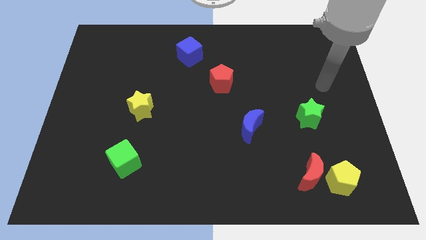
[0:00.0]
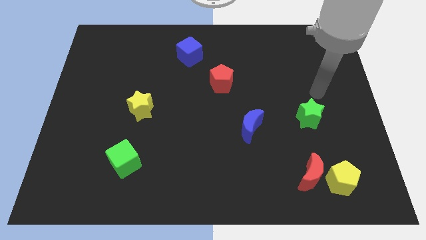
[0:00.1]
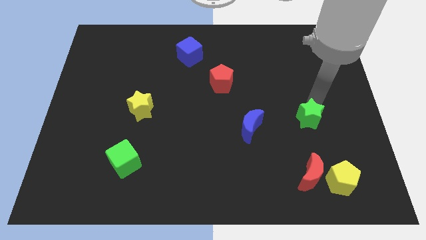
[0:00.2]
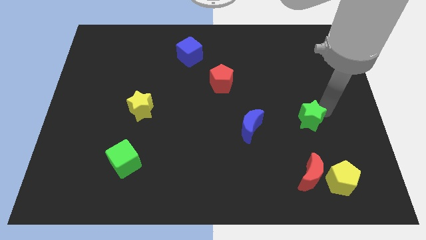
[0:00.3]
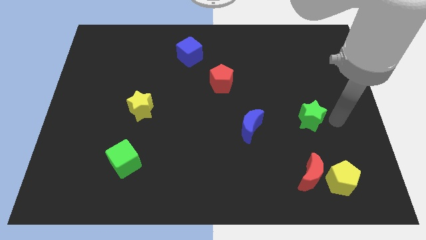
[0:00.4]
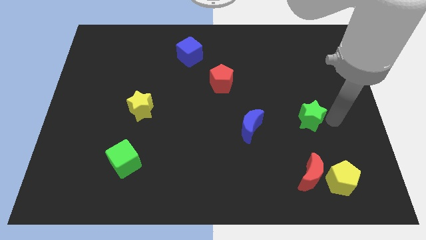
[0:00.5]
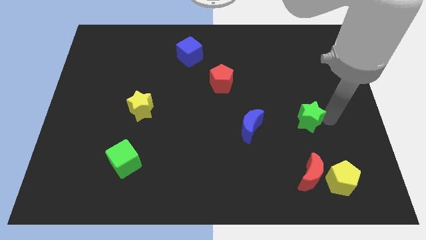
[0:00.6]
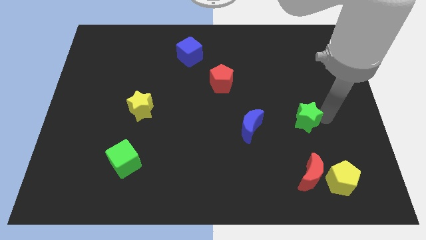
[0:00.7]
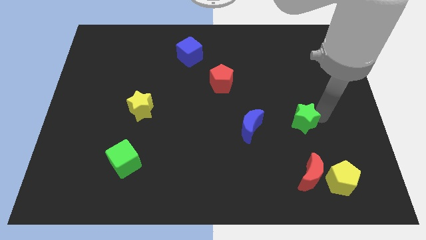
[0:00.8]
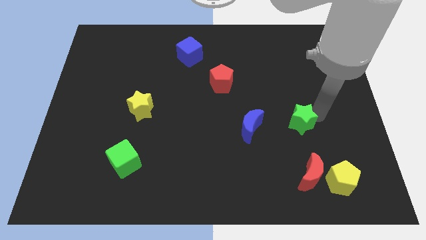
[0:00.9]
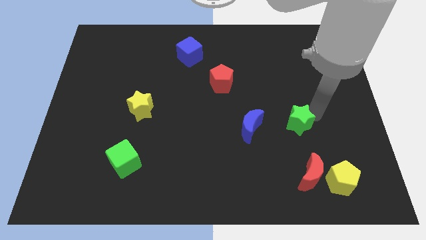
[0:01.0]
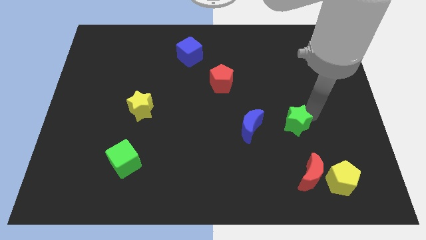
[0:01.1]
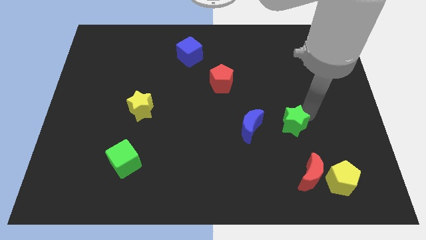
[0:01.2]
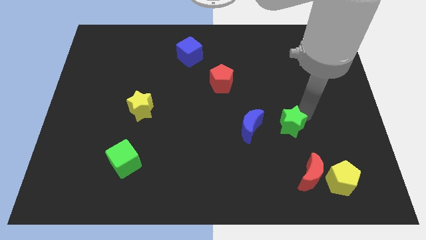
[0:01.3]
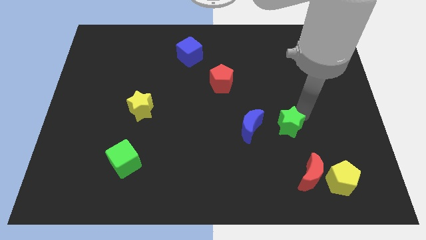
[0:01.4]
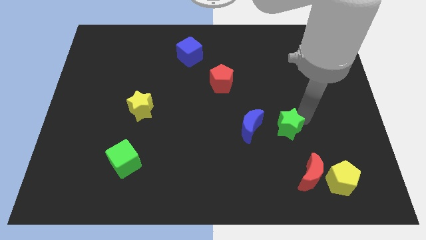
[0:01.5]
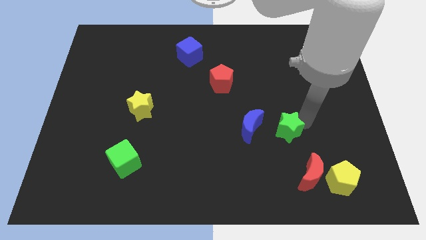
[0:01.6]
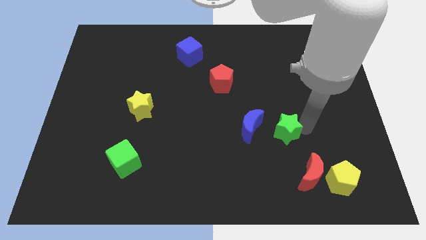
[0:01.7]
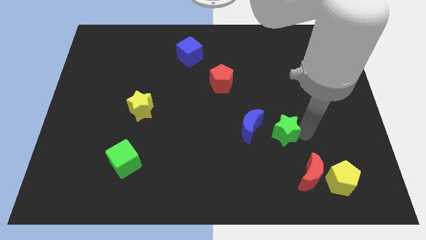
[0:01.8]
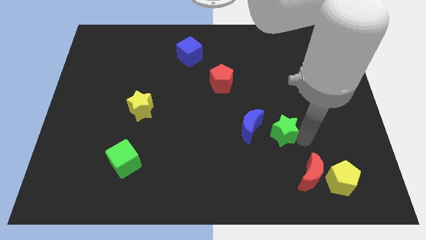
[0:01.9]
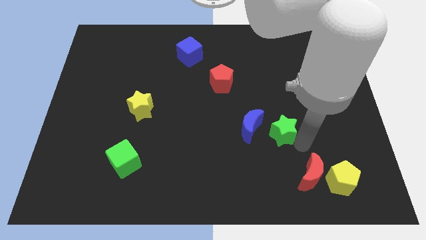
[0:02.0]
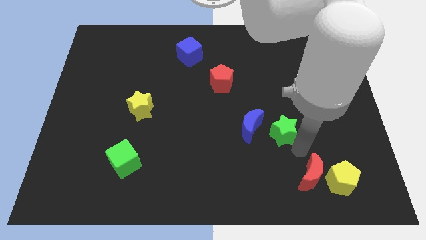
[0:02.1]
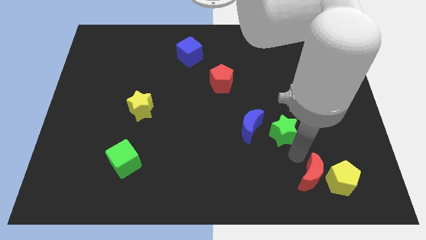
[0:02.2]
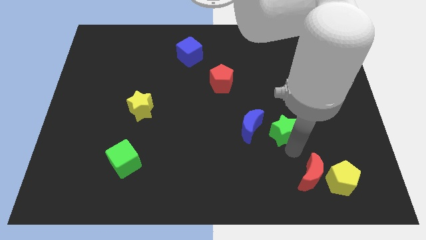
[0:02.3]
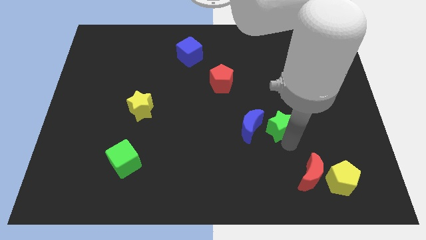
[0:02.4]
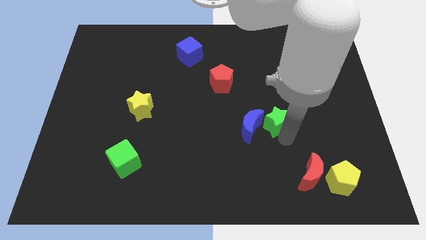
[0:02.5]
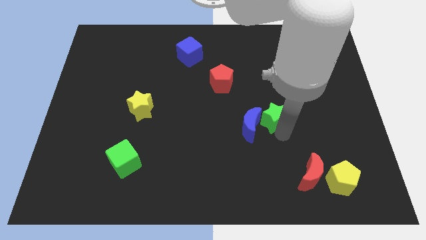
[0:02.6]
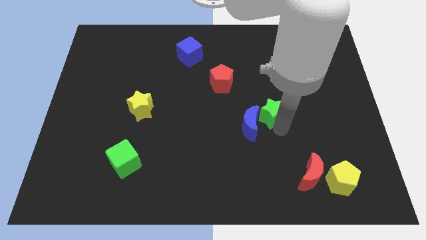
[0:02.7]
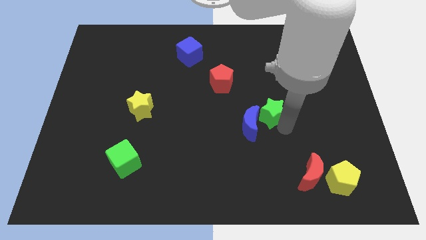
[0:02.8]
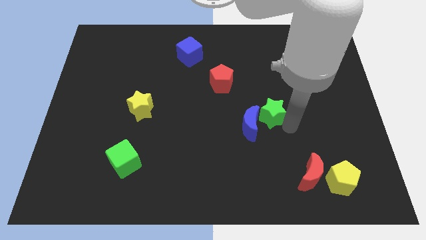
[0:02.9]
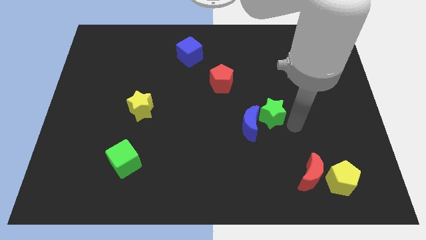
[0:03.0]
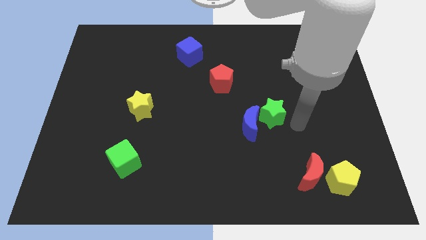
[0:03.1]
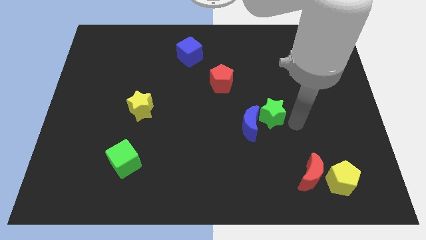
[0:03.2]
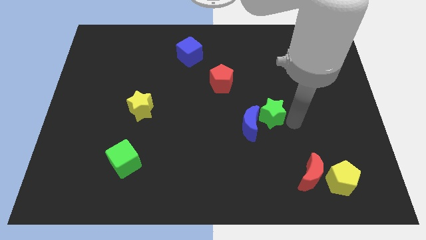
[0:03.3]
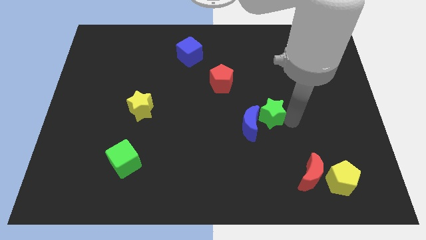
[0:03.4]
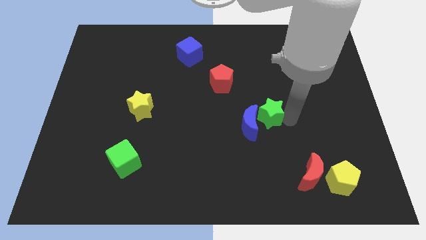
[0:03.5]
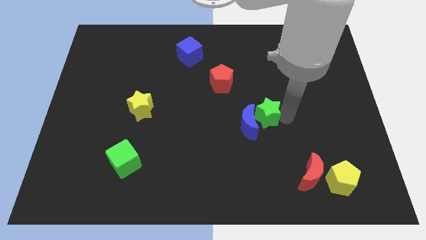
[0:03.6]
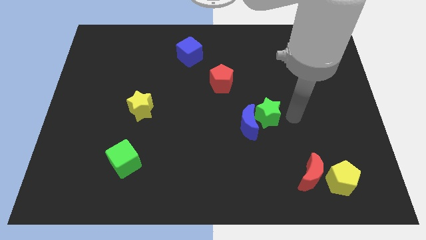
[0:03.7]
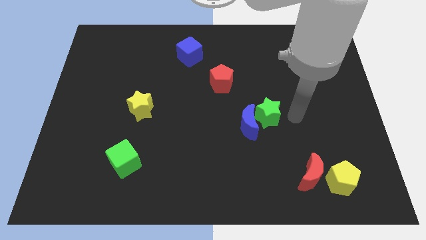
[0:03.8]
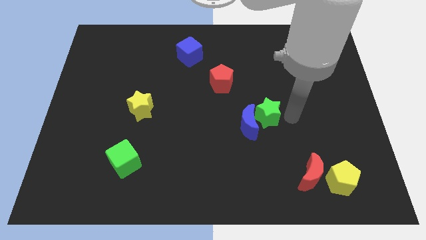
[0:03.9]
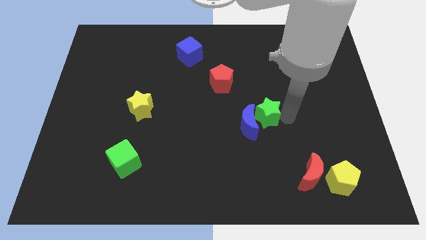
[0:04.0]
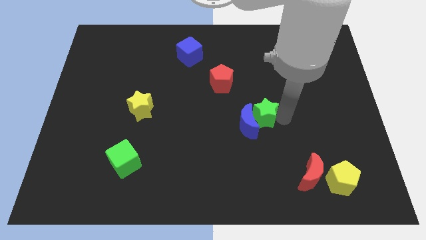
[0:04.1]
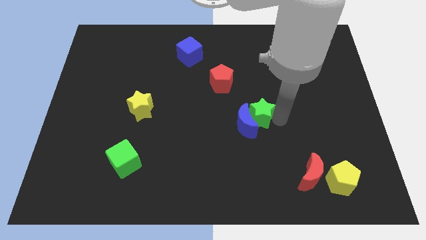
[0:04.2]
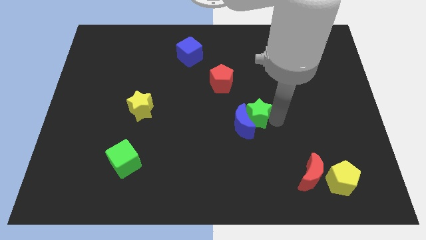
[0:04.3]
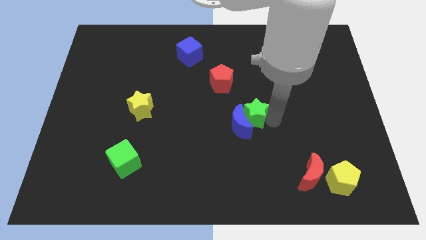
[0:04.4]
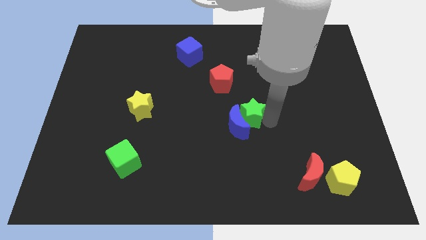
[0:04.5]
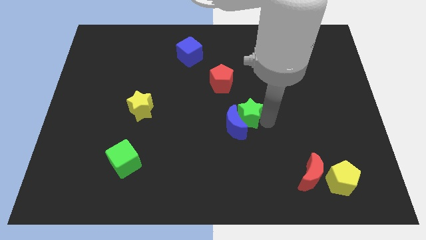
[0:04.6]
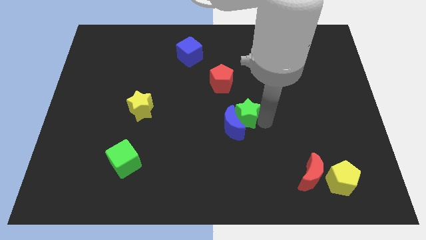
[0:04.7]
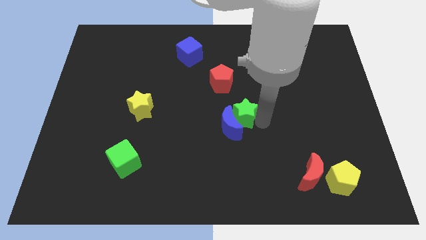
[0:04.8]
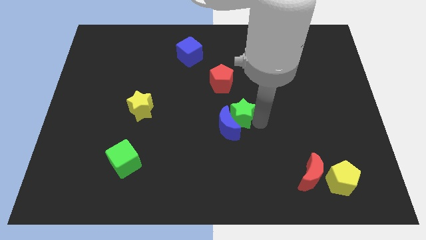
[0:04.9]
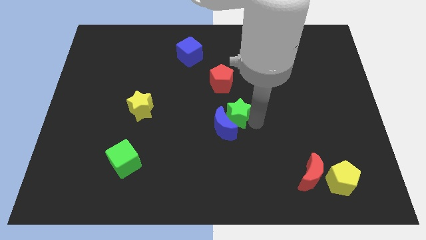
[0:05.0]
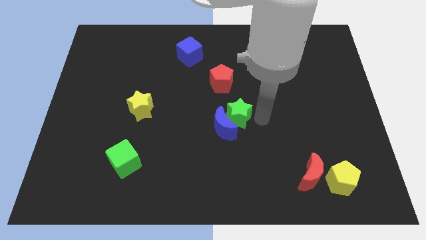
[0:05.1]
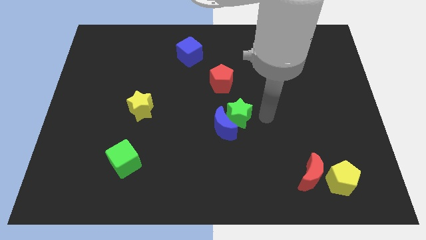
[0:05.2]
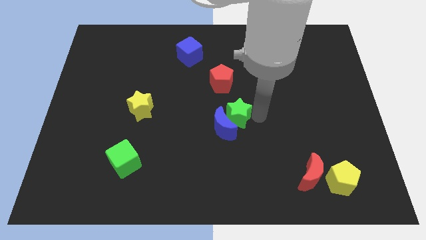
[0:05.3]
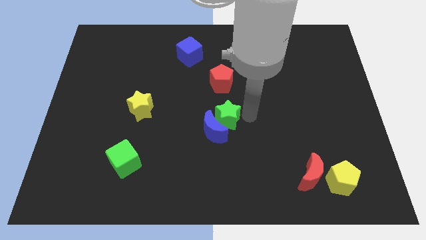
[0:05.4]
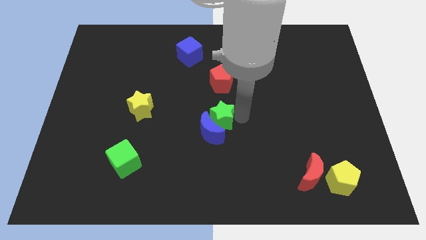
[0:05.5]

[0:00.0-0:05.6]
push the green star left

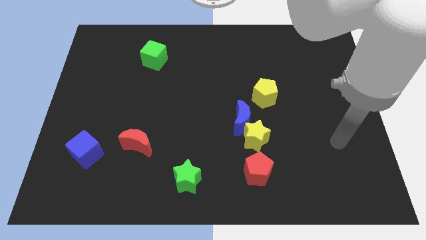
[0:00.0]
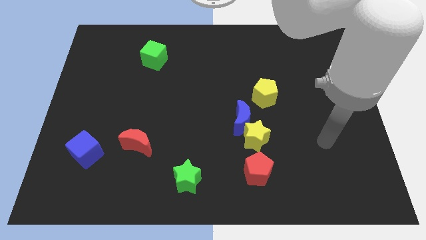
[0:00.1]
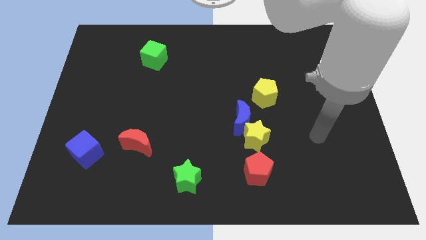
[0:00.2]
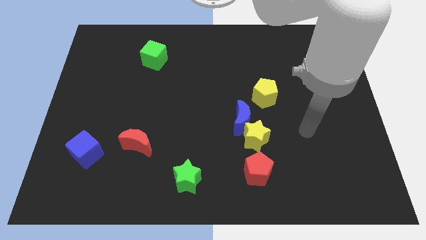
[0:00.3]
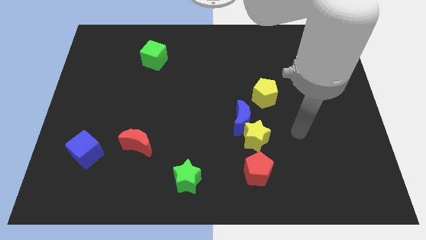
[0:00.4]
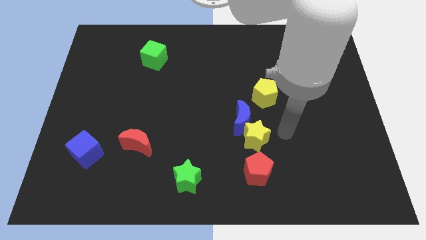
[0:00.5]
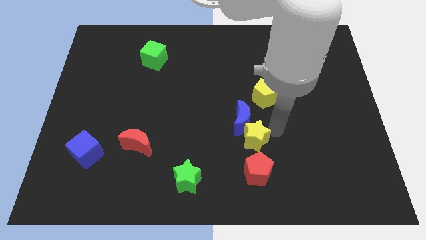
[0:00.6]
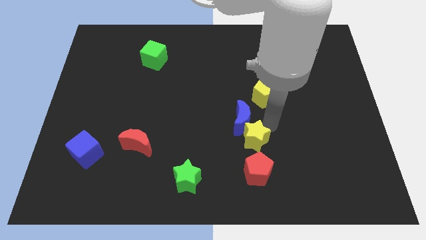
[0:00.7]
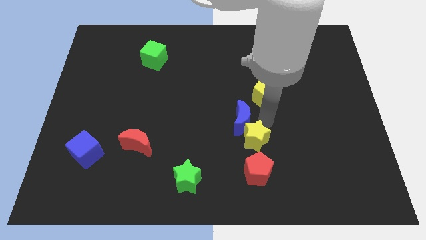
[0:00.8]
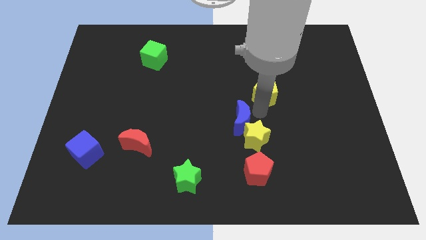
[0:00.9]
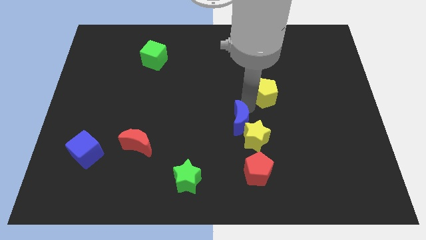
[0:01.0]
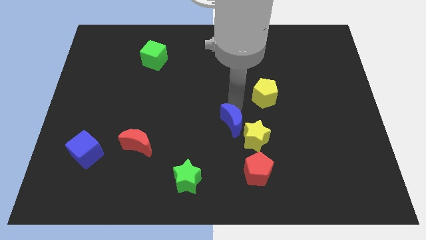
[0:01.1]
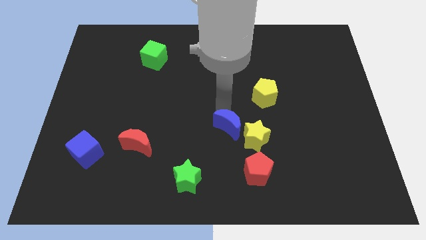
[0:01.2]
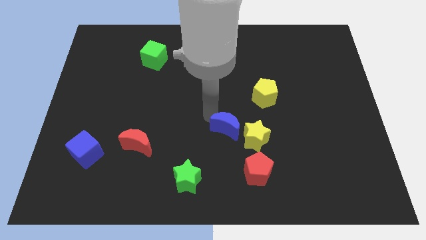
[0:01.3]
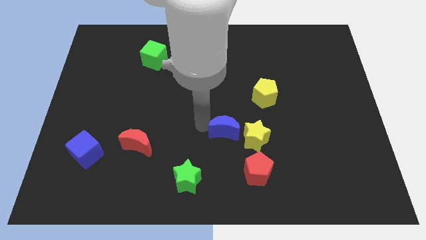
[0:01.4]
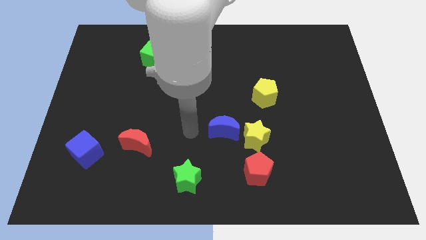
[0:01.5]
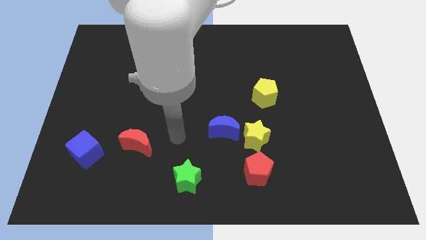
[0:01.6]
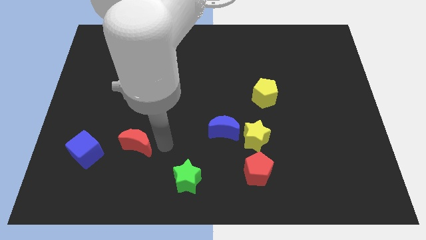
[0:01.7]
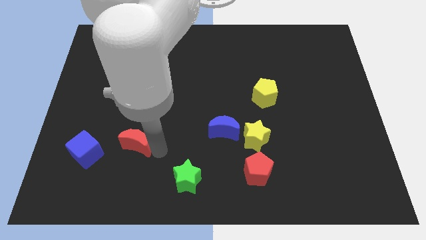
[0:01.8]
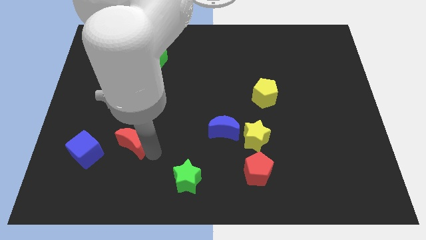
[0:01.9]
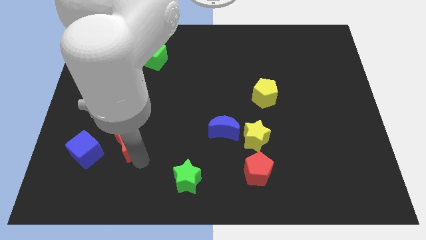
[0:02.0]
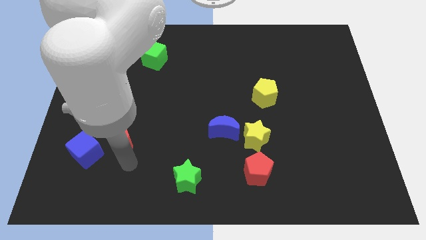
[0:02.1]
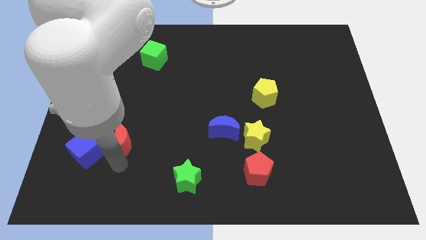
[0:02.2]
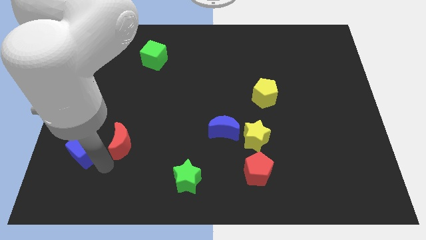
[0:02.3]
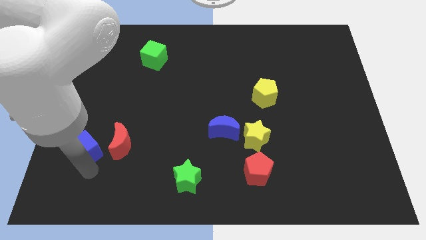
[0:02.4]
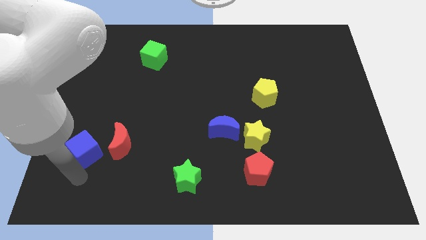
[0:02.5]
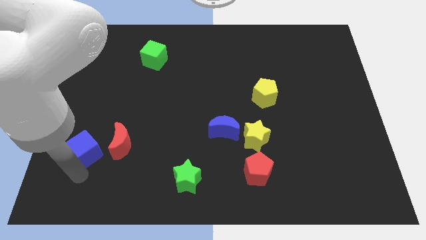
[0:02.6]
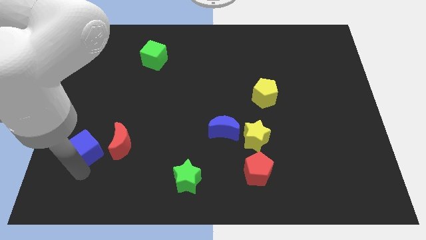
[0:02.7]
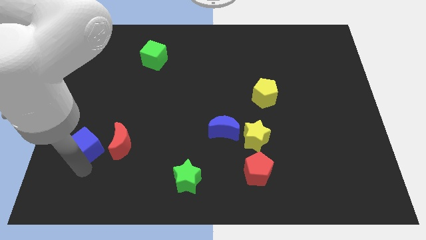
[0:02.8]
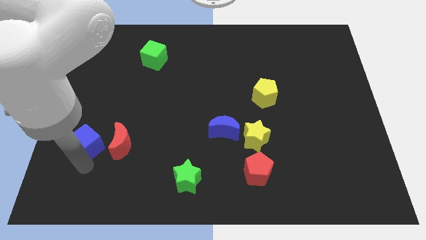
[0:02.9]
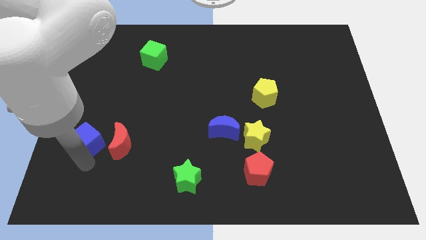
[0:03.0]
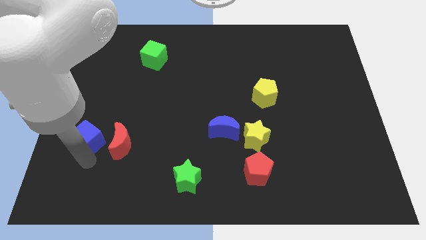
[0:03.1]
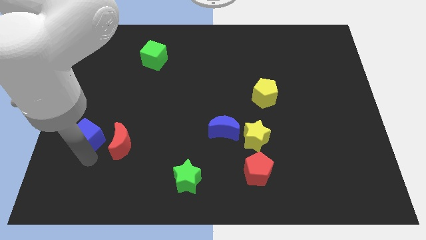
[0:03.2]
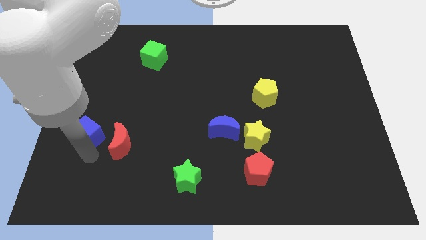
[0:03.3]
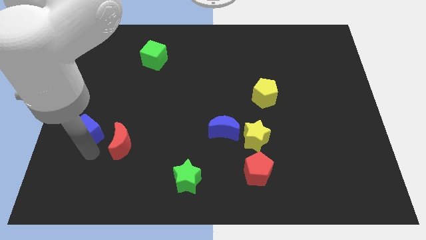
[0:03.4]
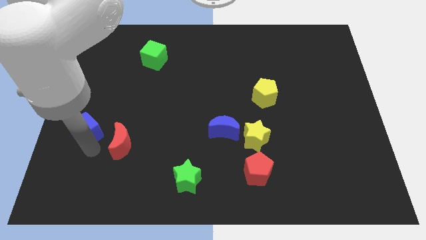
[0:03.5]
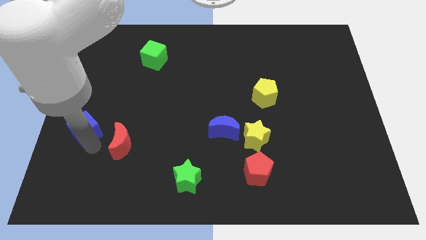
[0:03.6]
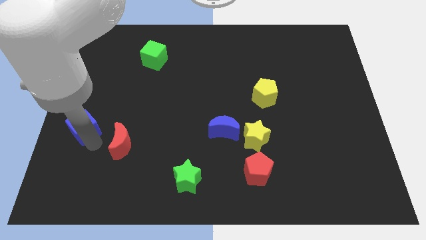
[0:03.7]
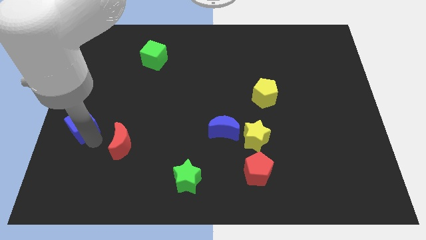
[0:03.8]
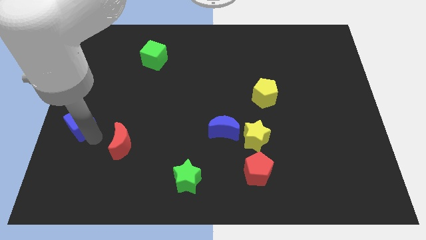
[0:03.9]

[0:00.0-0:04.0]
slide the blue cube up slightly
